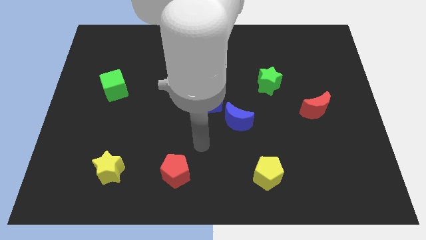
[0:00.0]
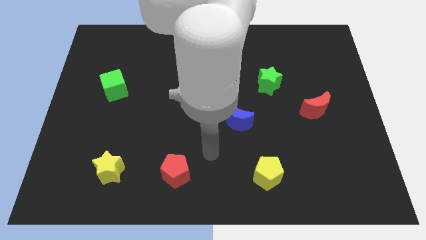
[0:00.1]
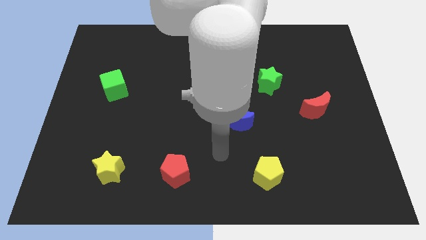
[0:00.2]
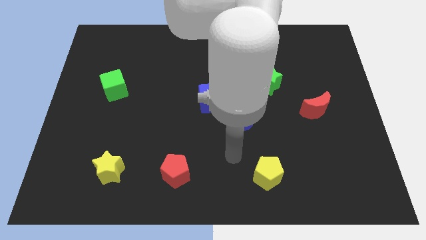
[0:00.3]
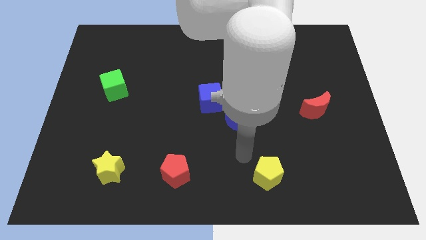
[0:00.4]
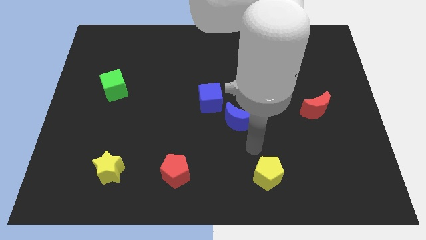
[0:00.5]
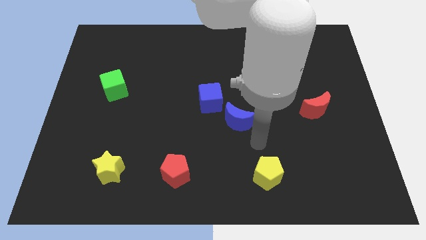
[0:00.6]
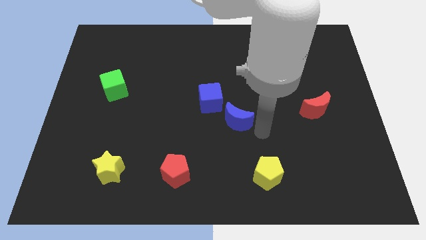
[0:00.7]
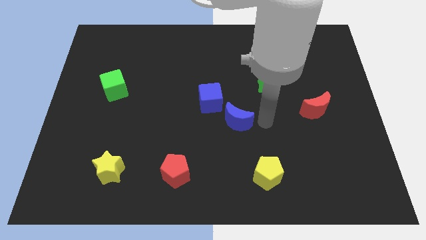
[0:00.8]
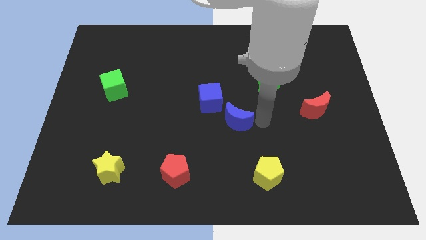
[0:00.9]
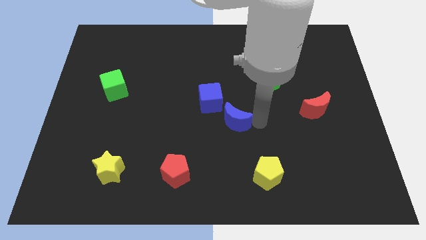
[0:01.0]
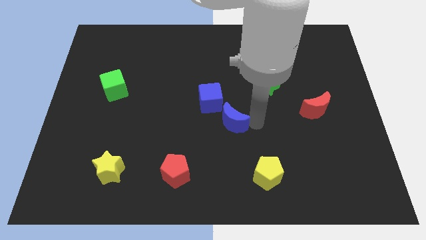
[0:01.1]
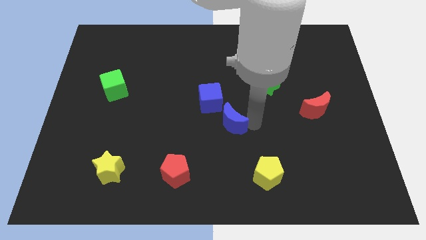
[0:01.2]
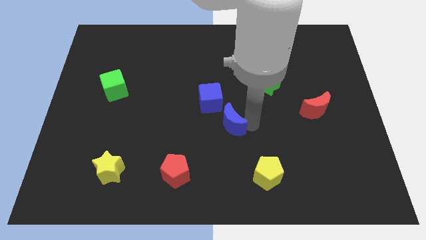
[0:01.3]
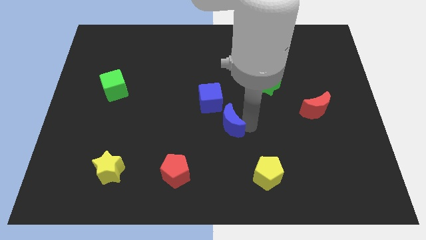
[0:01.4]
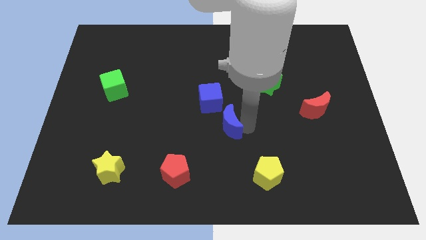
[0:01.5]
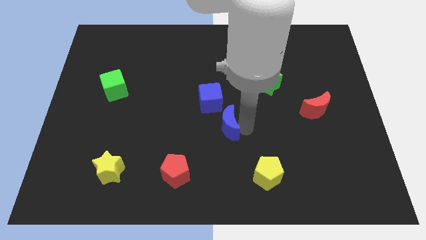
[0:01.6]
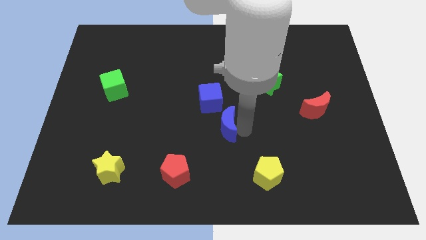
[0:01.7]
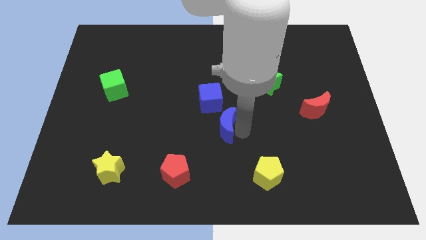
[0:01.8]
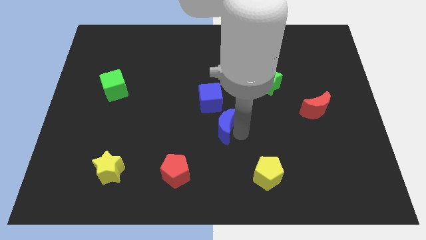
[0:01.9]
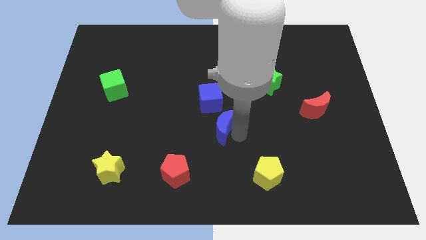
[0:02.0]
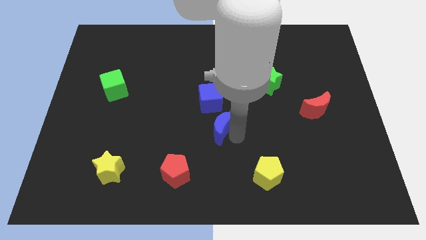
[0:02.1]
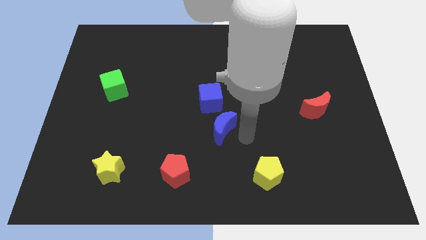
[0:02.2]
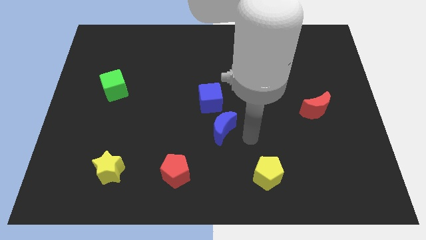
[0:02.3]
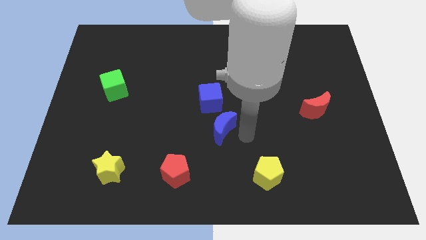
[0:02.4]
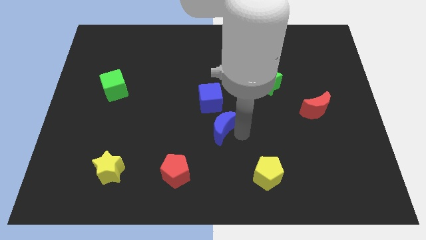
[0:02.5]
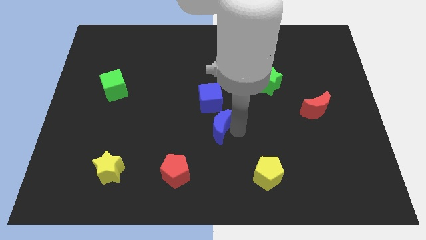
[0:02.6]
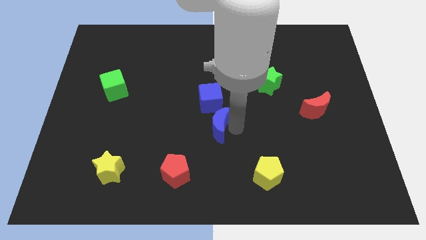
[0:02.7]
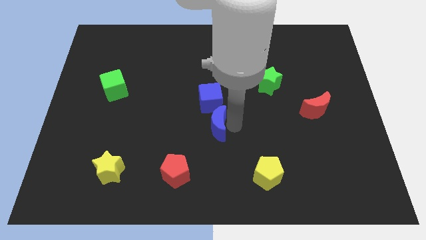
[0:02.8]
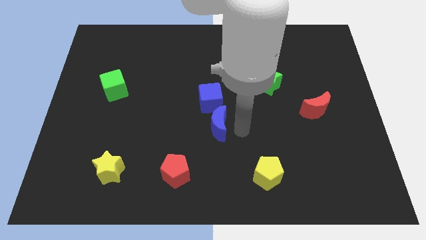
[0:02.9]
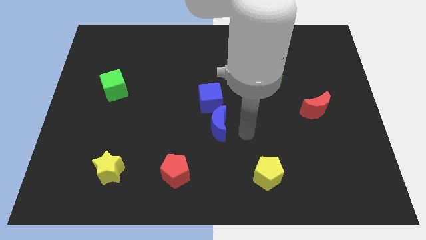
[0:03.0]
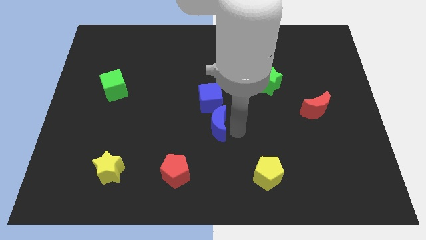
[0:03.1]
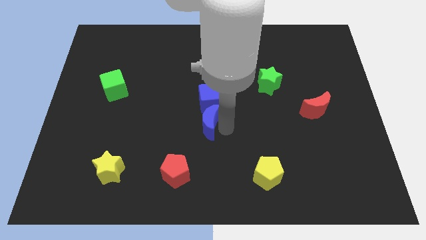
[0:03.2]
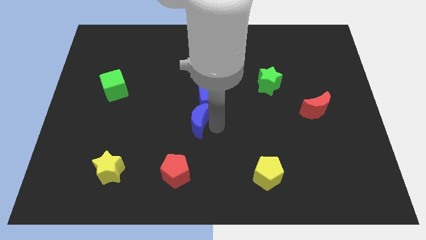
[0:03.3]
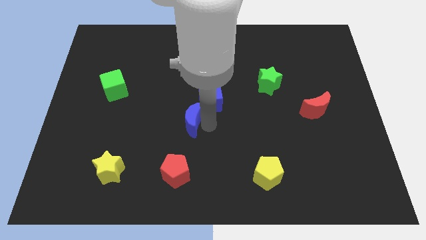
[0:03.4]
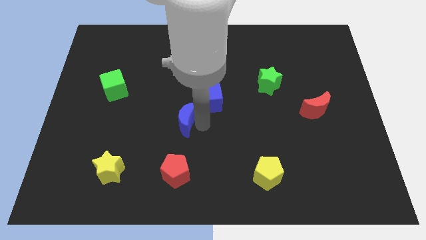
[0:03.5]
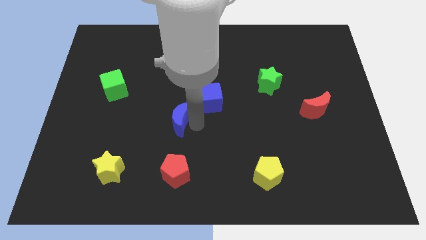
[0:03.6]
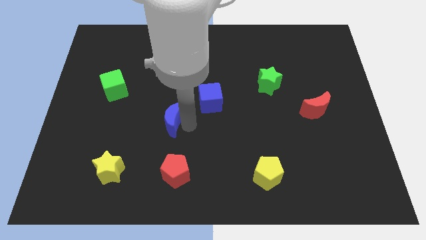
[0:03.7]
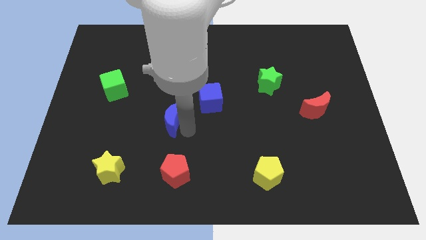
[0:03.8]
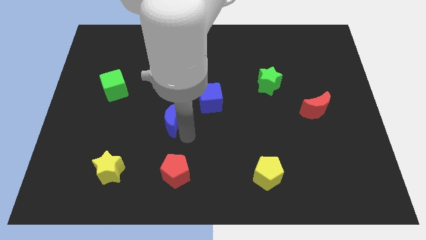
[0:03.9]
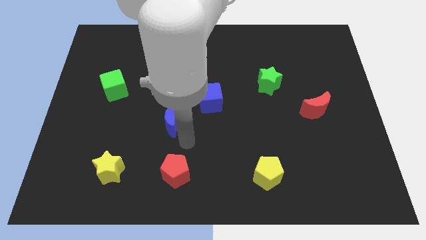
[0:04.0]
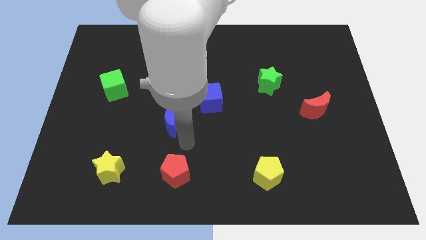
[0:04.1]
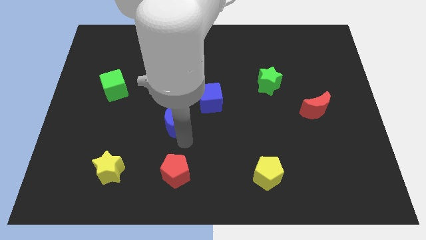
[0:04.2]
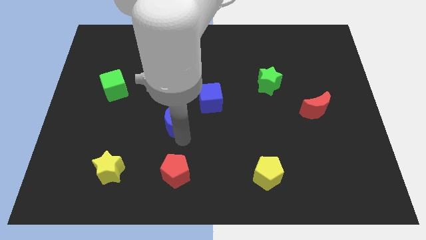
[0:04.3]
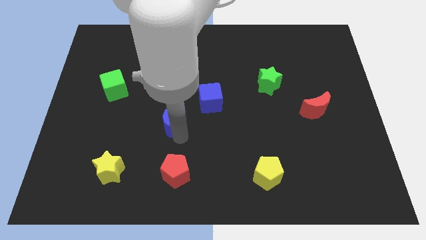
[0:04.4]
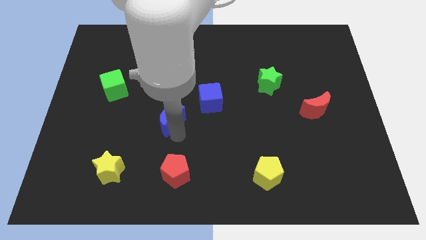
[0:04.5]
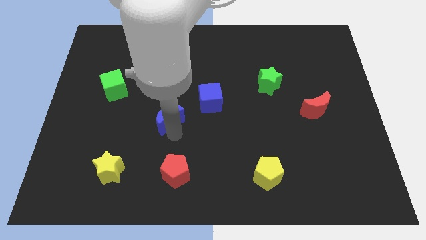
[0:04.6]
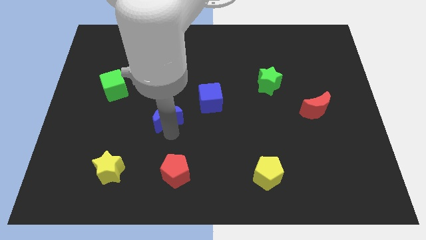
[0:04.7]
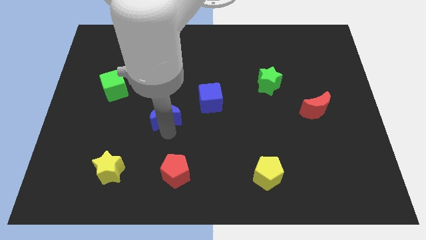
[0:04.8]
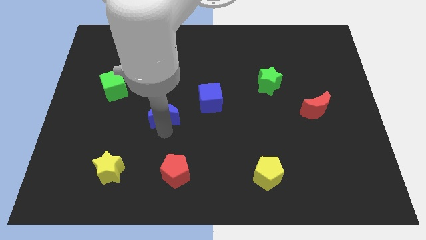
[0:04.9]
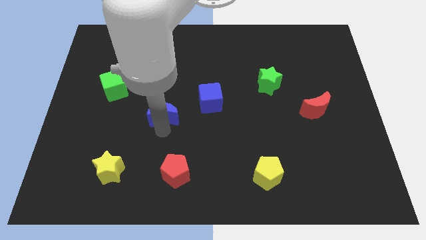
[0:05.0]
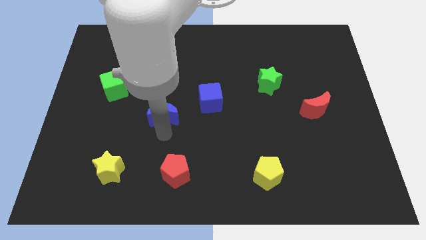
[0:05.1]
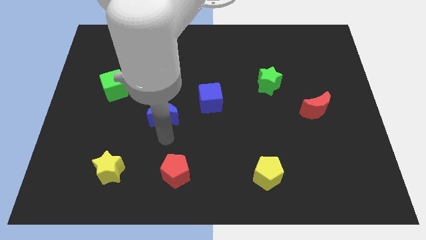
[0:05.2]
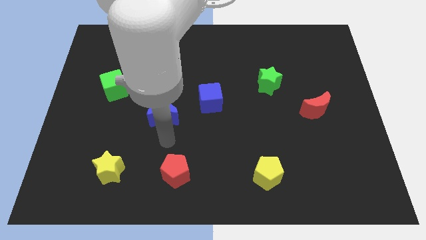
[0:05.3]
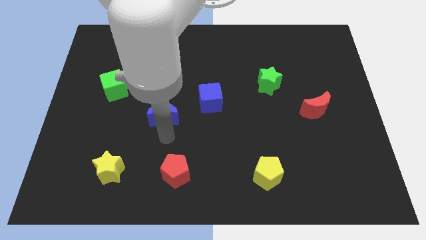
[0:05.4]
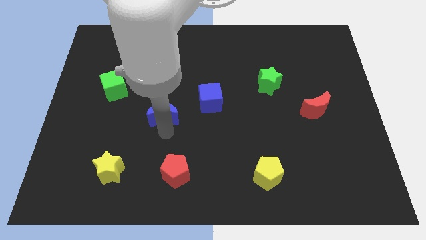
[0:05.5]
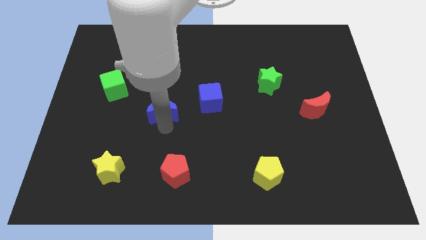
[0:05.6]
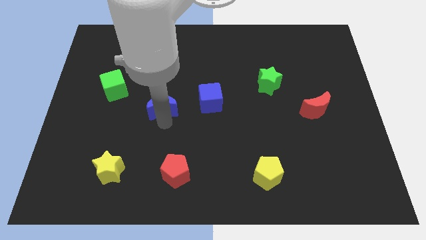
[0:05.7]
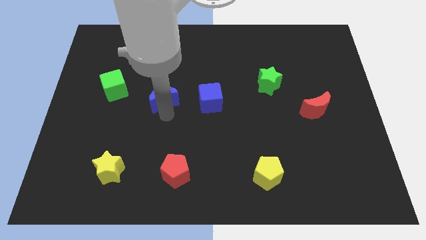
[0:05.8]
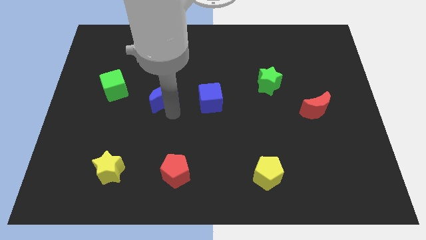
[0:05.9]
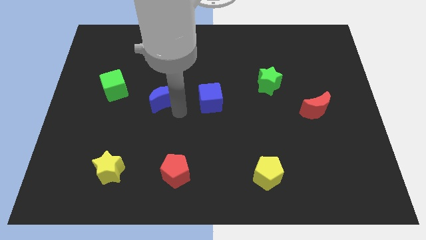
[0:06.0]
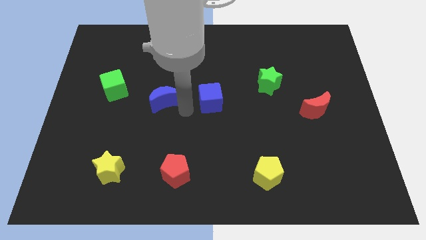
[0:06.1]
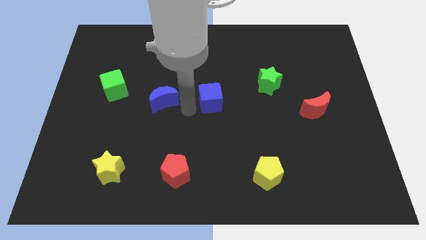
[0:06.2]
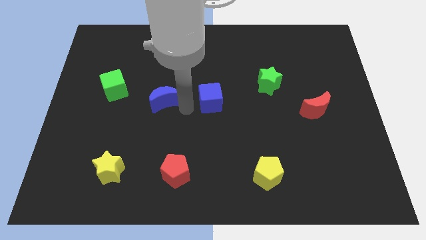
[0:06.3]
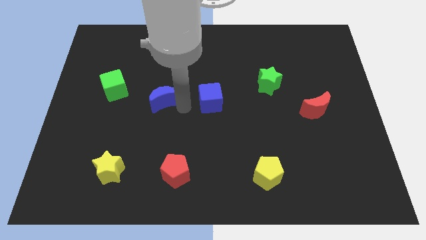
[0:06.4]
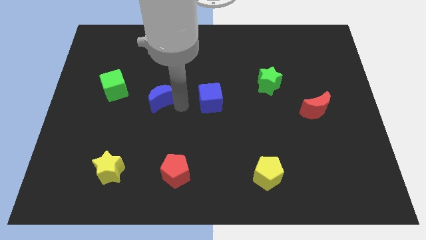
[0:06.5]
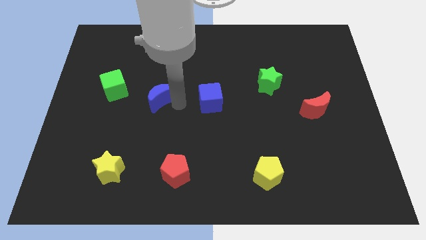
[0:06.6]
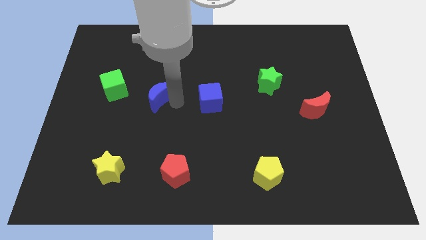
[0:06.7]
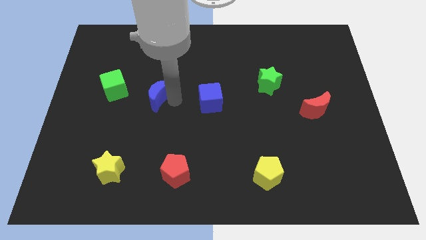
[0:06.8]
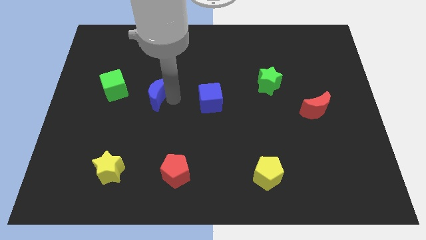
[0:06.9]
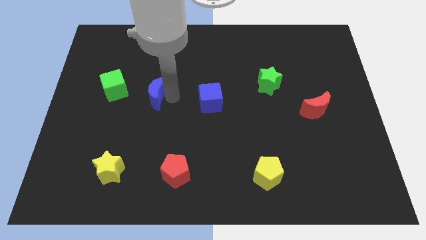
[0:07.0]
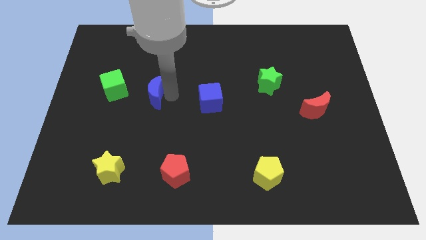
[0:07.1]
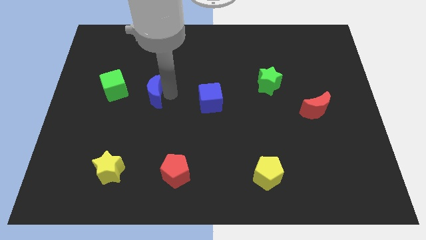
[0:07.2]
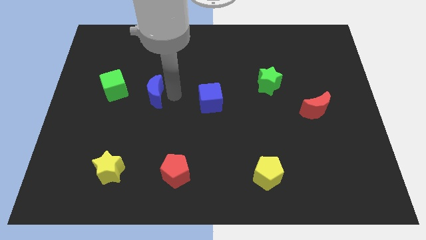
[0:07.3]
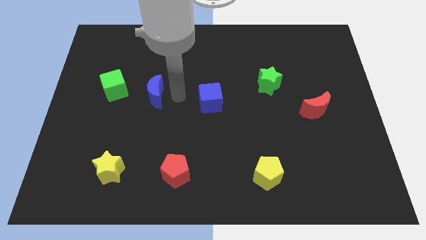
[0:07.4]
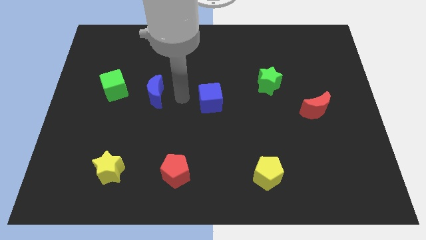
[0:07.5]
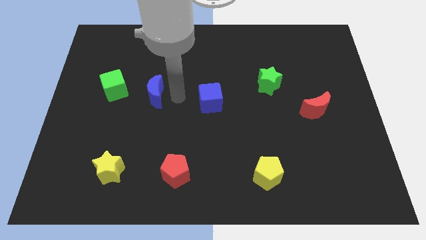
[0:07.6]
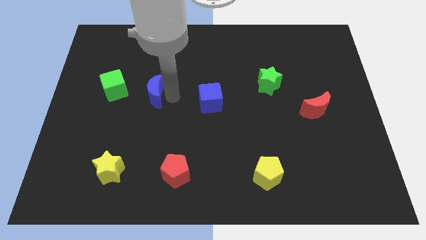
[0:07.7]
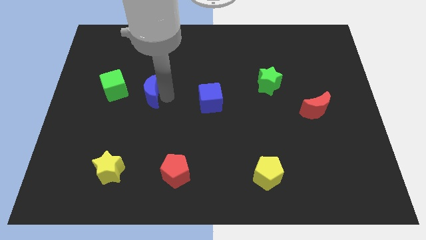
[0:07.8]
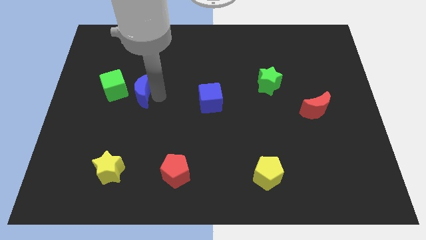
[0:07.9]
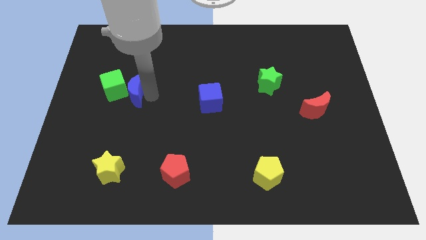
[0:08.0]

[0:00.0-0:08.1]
put the blue moon next to the green cube
